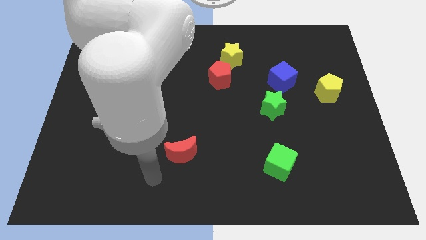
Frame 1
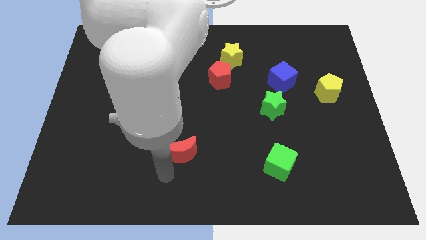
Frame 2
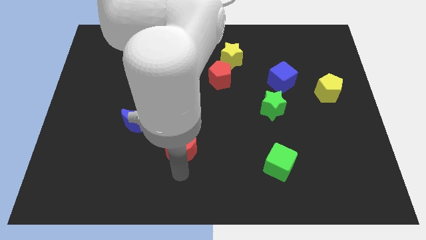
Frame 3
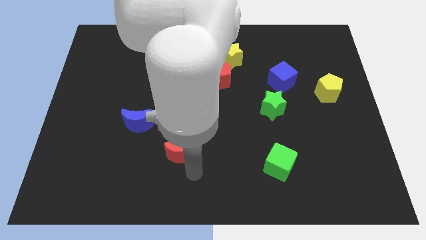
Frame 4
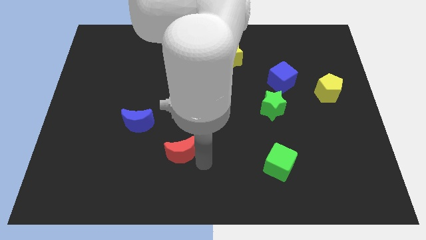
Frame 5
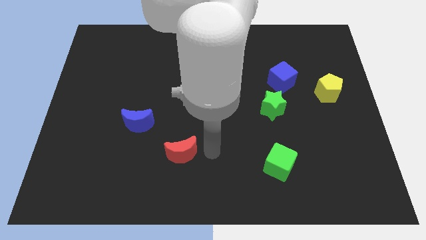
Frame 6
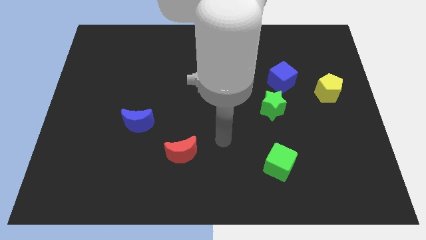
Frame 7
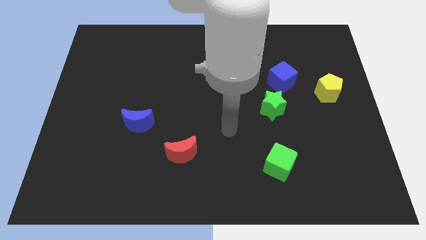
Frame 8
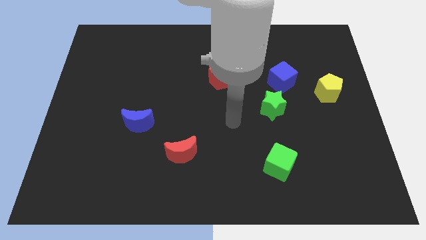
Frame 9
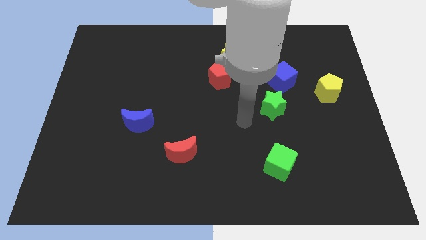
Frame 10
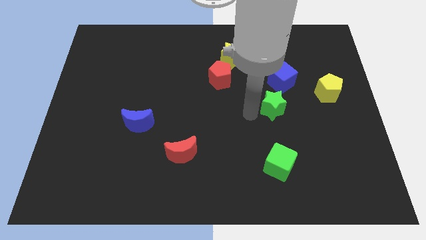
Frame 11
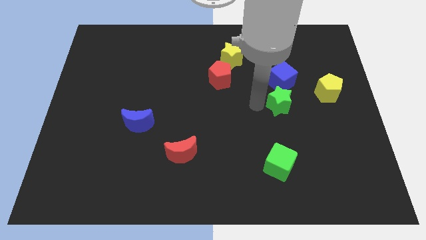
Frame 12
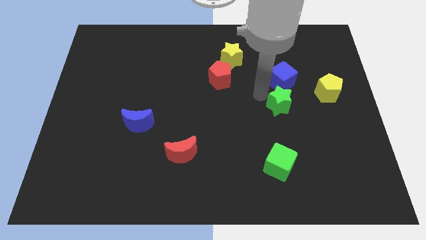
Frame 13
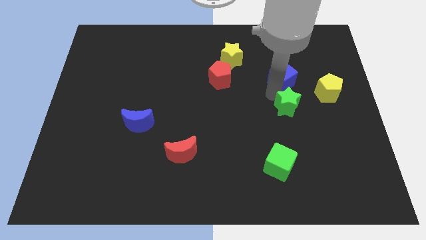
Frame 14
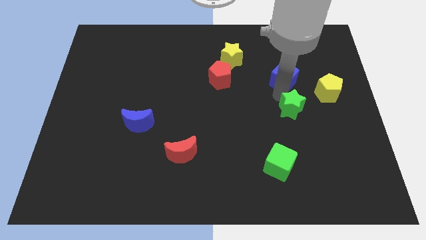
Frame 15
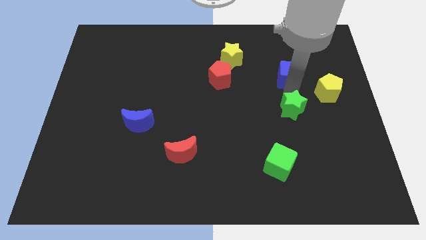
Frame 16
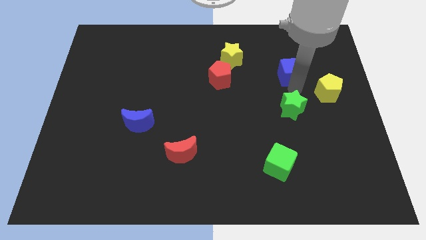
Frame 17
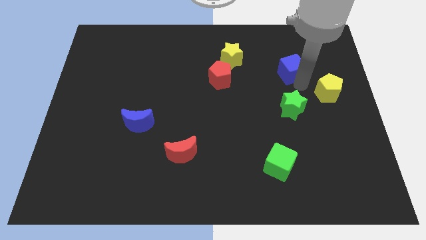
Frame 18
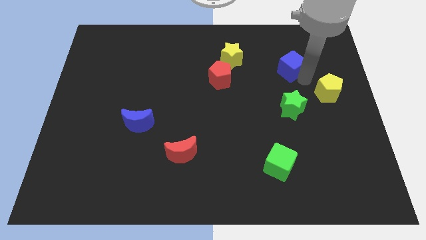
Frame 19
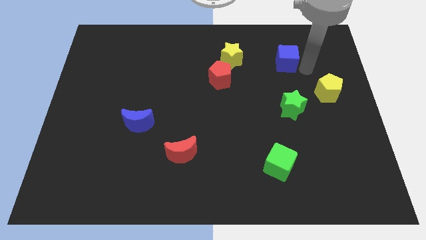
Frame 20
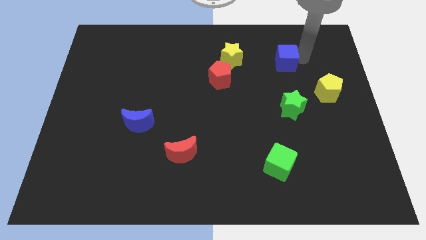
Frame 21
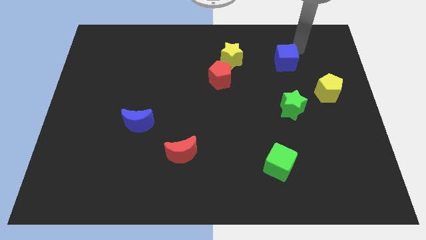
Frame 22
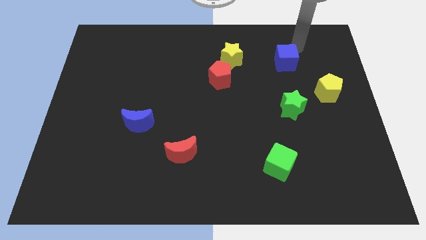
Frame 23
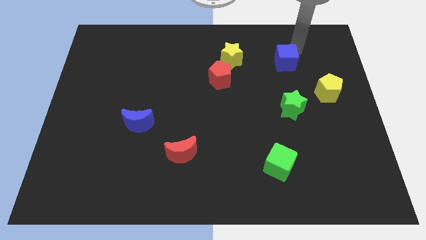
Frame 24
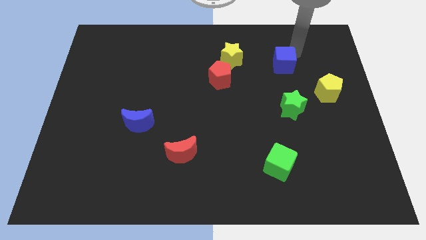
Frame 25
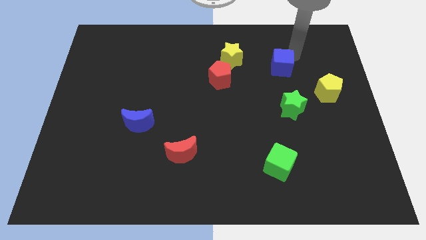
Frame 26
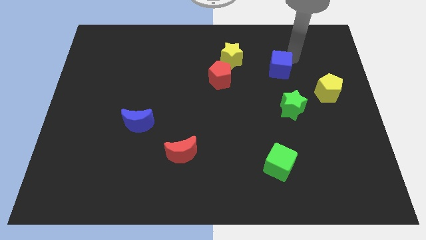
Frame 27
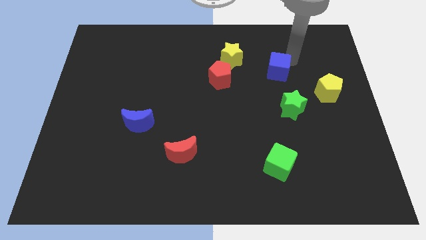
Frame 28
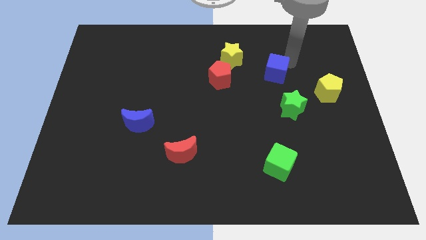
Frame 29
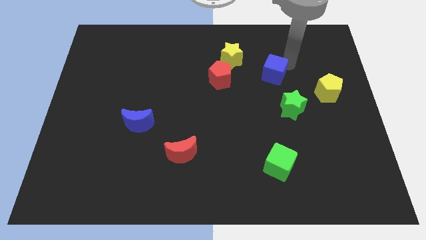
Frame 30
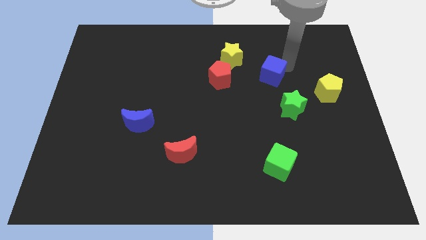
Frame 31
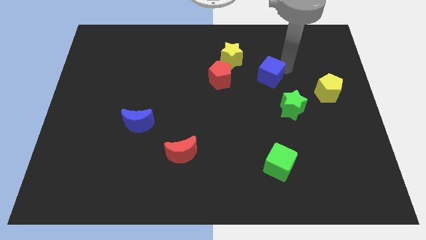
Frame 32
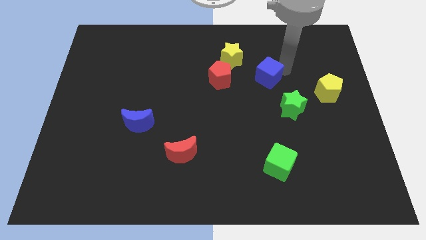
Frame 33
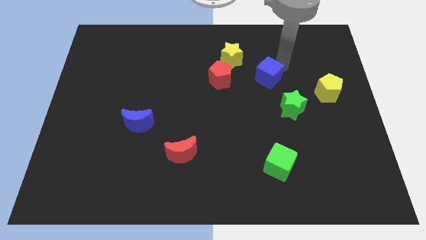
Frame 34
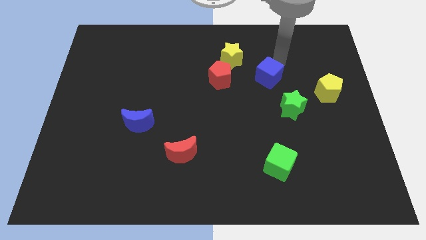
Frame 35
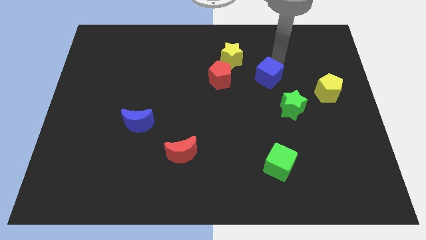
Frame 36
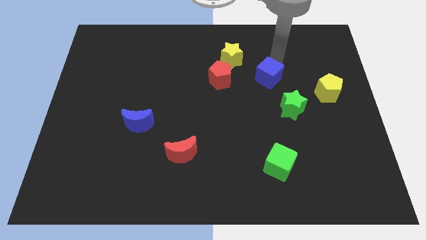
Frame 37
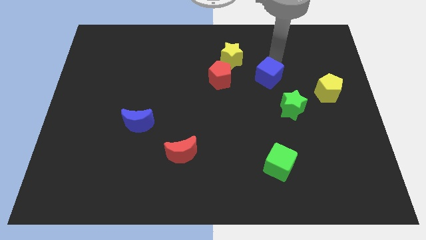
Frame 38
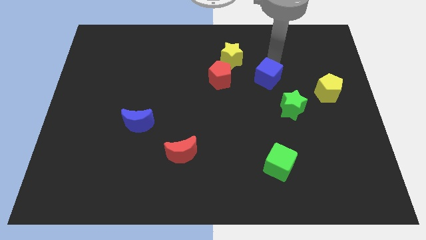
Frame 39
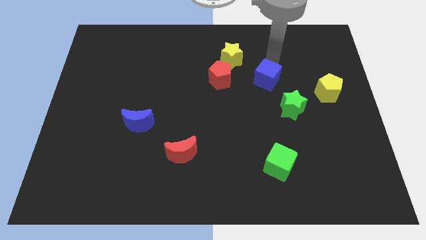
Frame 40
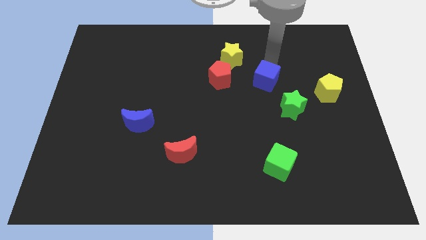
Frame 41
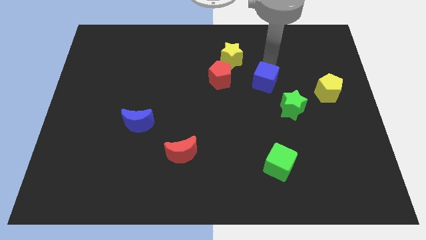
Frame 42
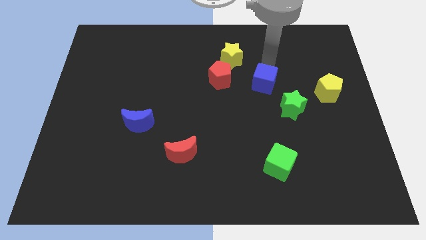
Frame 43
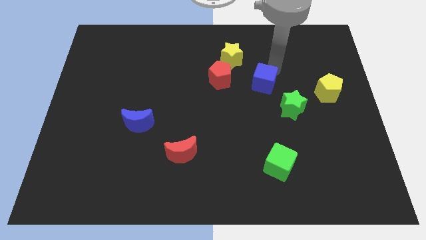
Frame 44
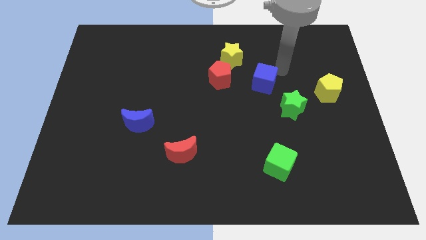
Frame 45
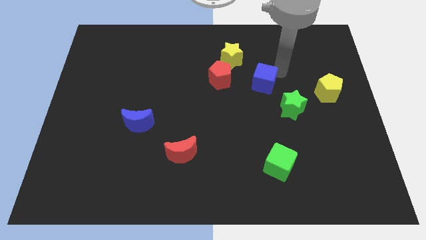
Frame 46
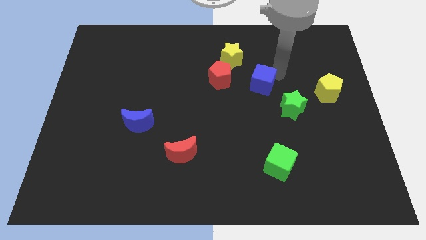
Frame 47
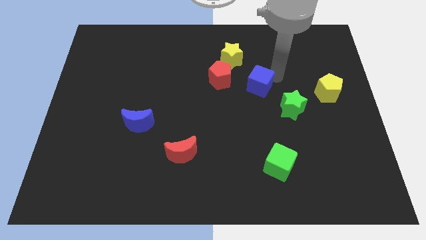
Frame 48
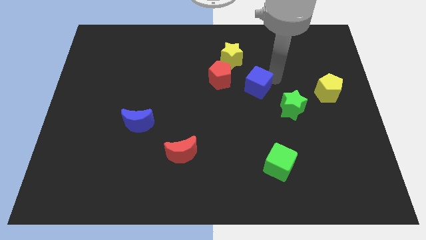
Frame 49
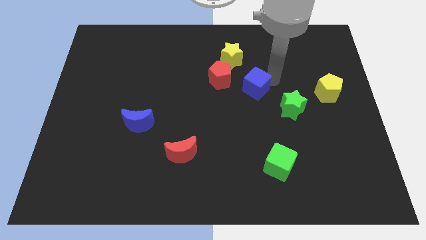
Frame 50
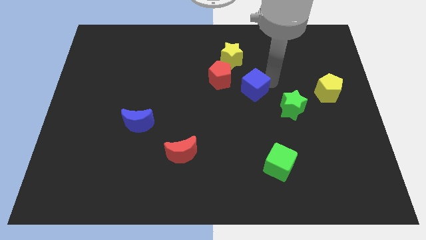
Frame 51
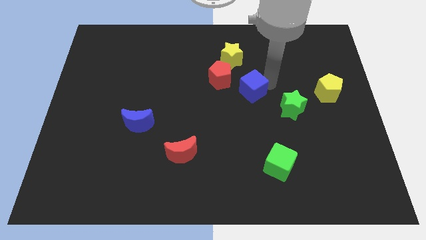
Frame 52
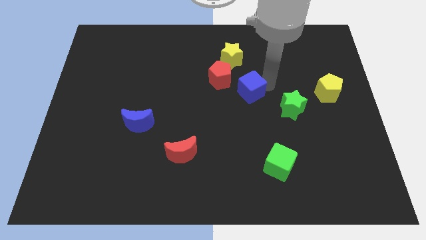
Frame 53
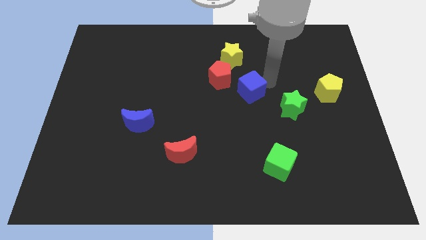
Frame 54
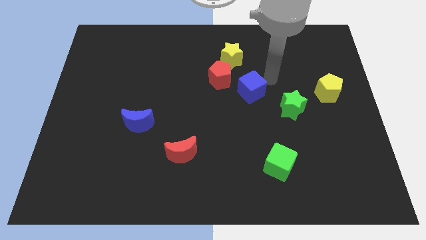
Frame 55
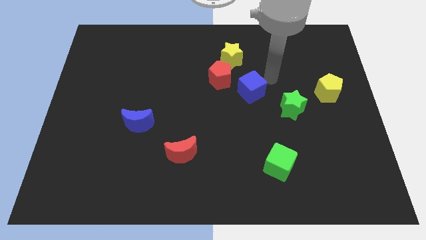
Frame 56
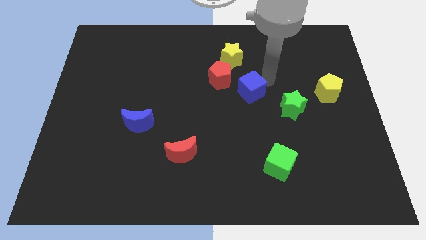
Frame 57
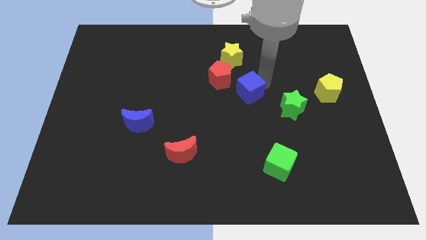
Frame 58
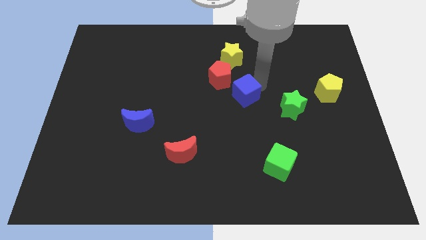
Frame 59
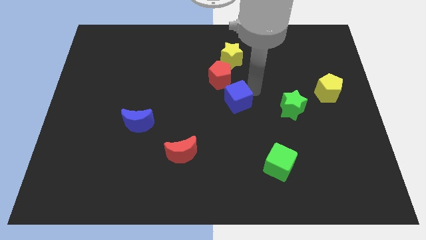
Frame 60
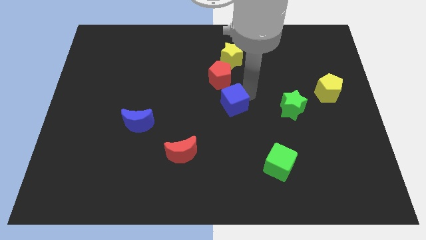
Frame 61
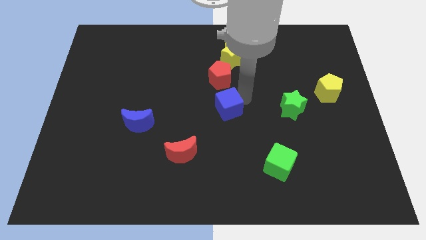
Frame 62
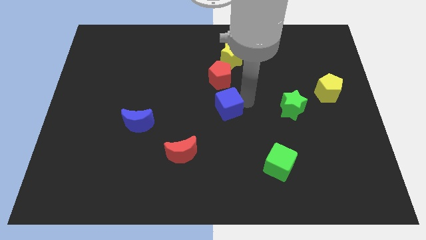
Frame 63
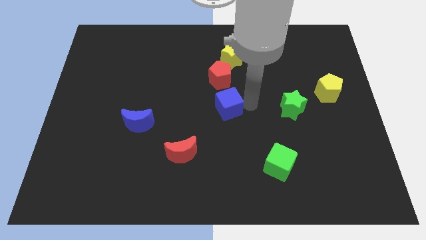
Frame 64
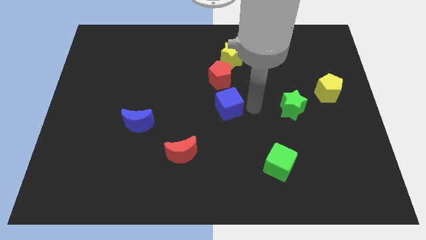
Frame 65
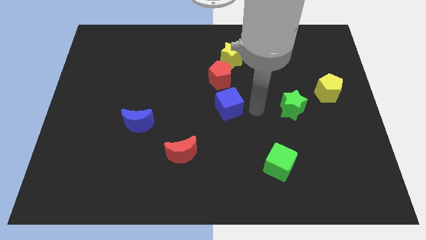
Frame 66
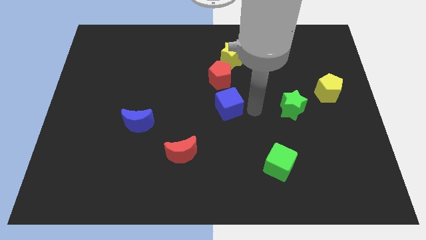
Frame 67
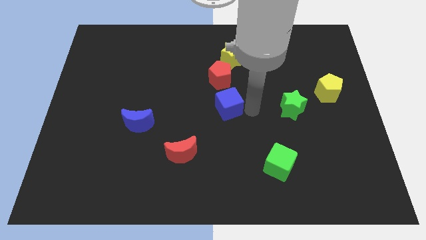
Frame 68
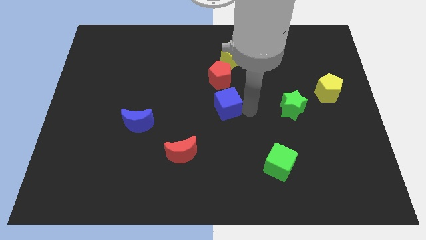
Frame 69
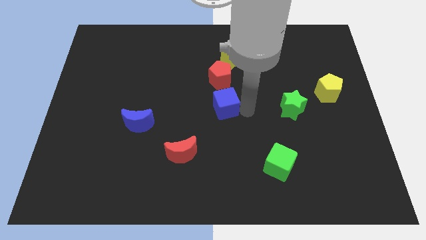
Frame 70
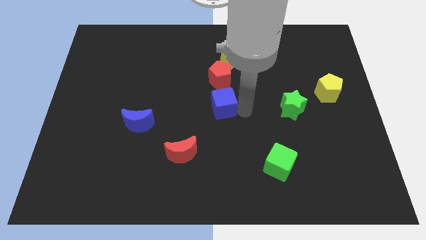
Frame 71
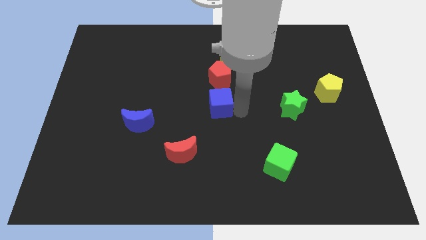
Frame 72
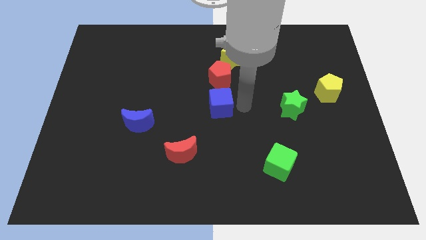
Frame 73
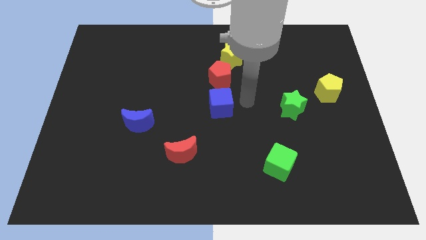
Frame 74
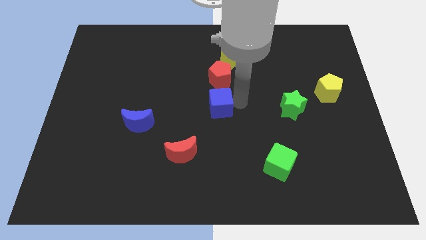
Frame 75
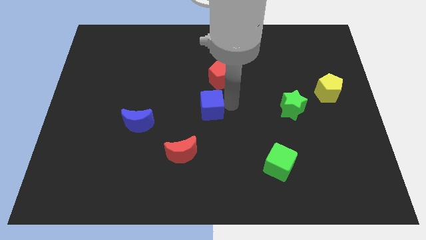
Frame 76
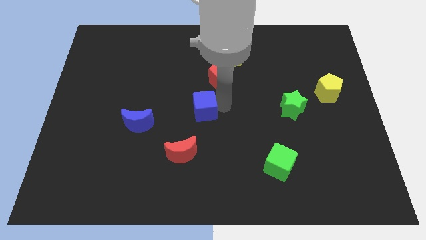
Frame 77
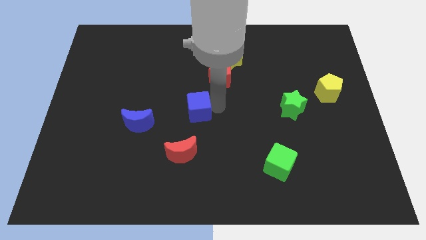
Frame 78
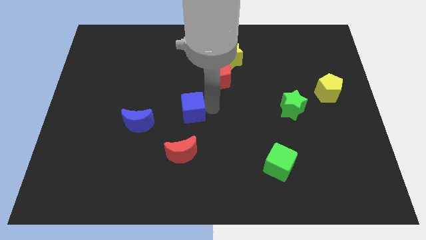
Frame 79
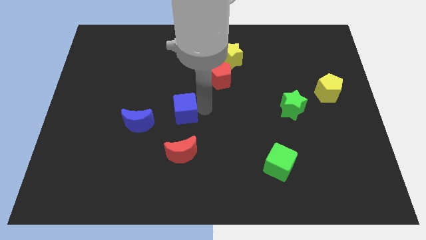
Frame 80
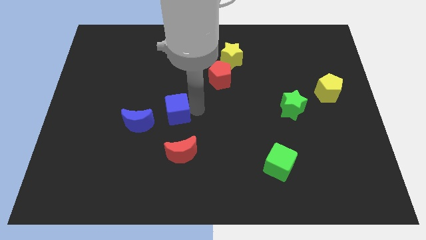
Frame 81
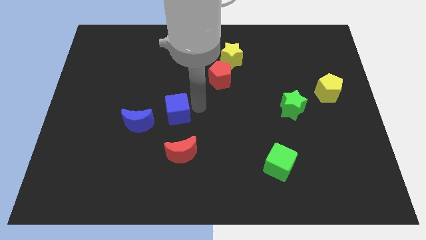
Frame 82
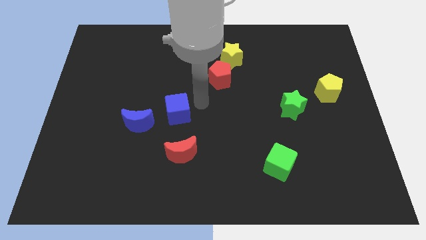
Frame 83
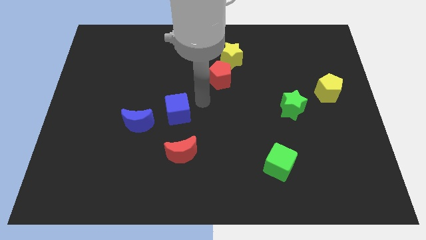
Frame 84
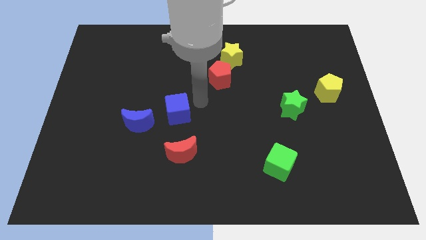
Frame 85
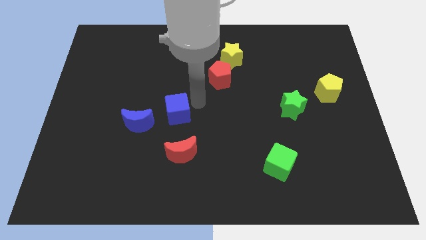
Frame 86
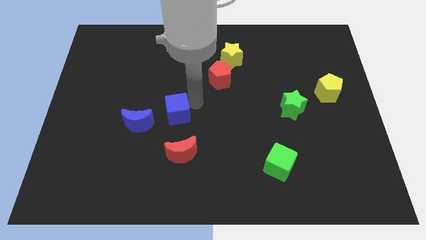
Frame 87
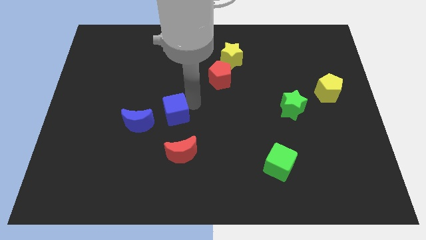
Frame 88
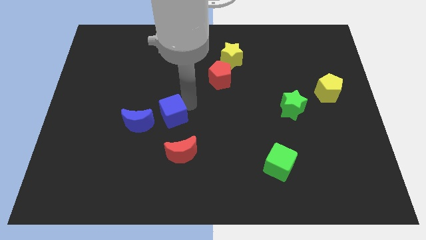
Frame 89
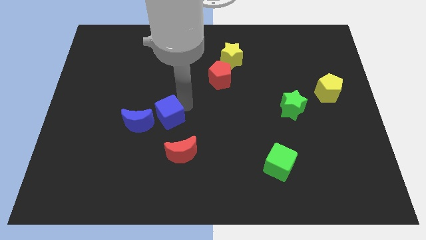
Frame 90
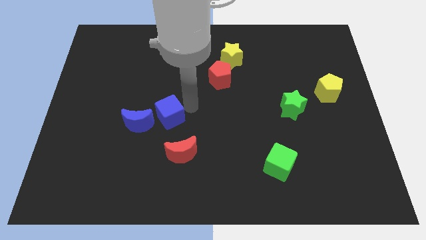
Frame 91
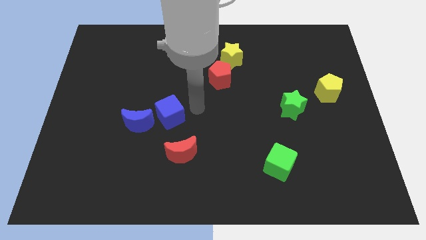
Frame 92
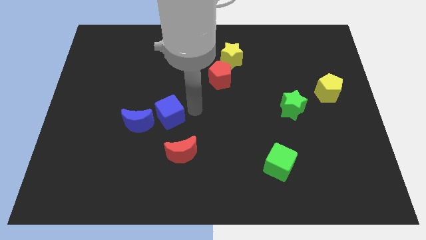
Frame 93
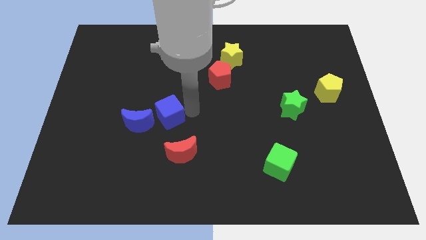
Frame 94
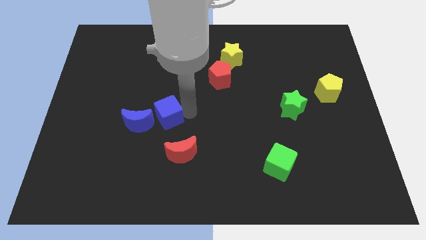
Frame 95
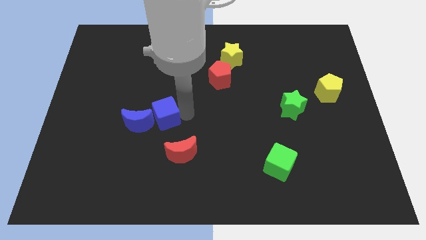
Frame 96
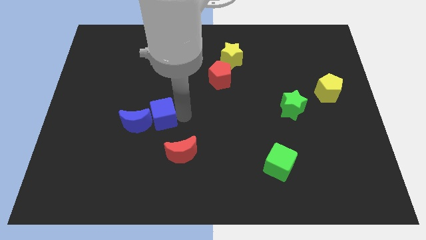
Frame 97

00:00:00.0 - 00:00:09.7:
push the blue cube towards the blue moon
